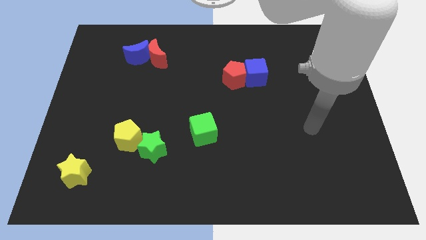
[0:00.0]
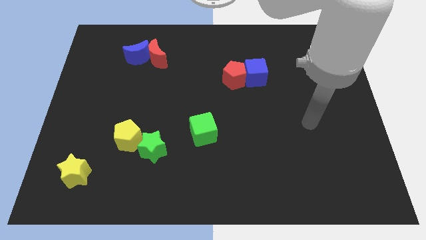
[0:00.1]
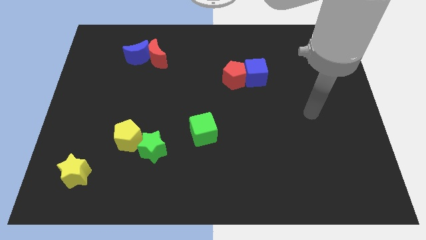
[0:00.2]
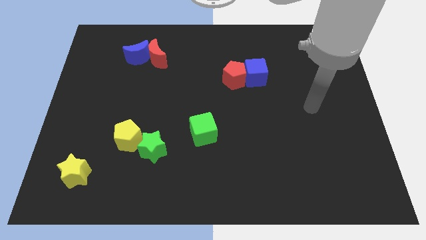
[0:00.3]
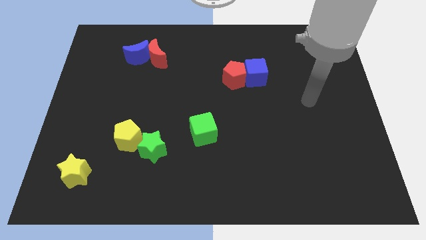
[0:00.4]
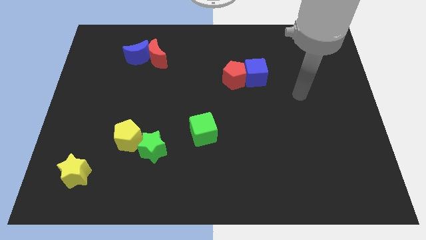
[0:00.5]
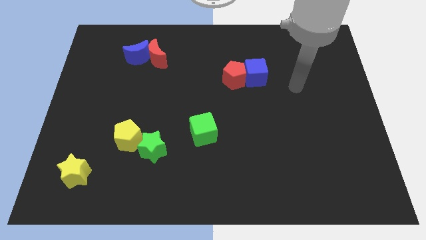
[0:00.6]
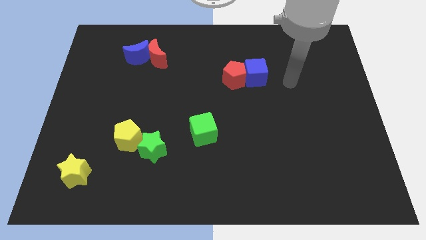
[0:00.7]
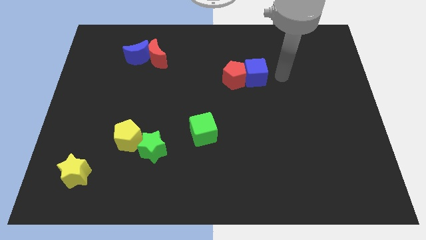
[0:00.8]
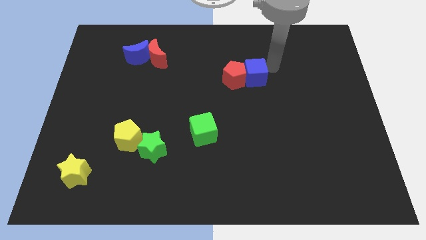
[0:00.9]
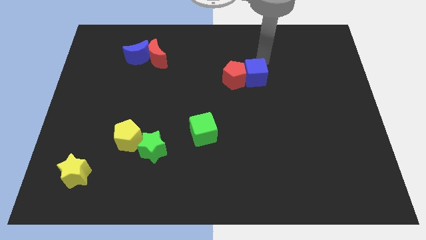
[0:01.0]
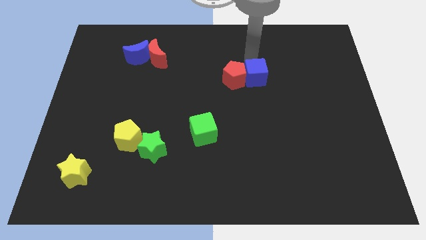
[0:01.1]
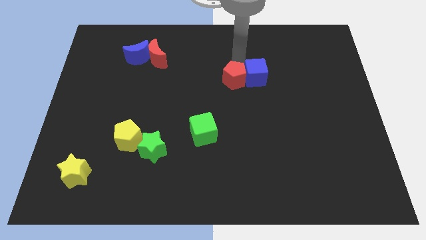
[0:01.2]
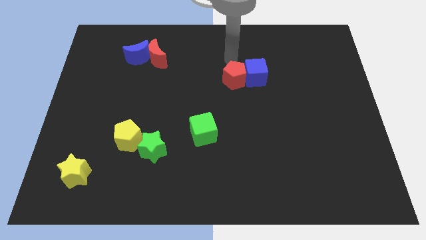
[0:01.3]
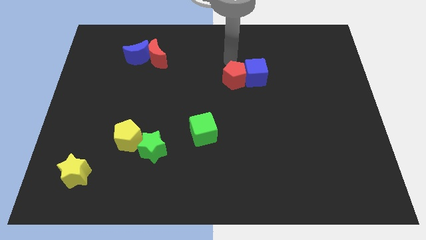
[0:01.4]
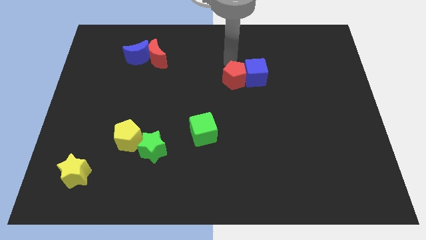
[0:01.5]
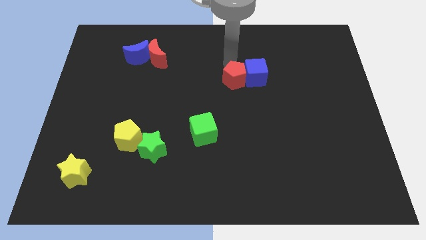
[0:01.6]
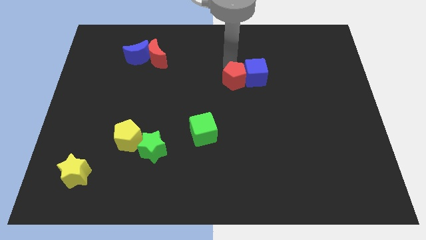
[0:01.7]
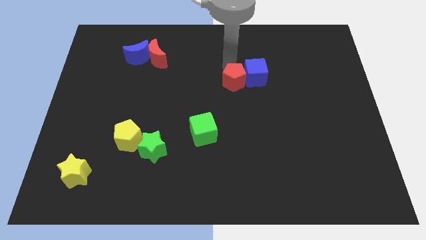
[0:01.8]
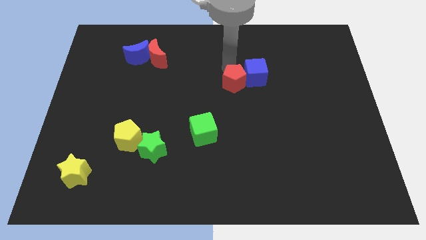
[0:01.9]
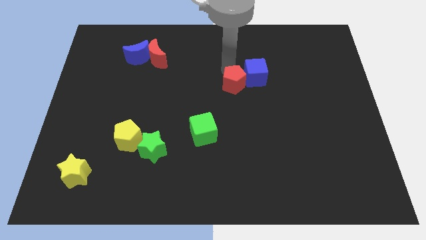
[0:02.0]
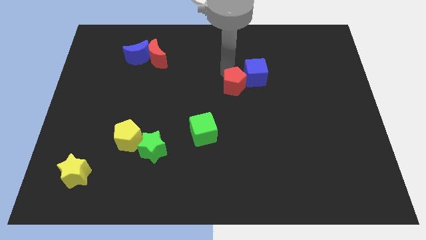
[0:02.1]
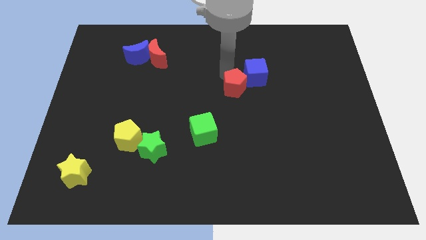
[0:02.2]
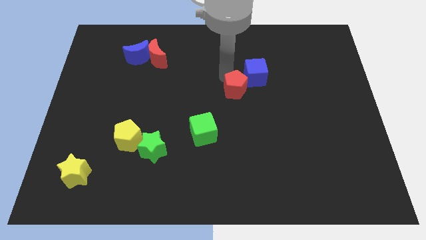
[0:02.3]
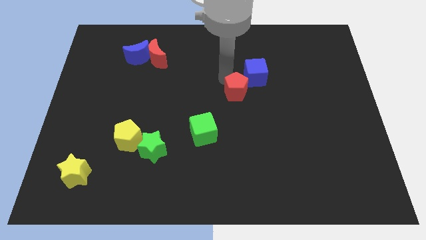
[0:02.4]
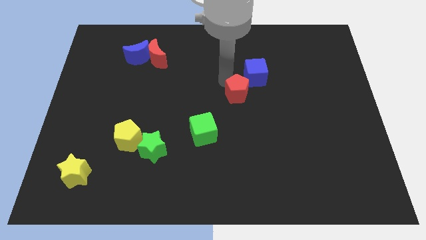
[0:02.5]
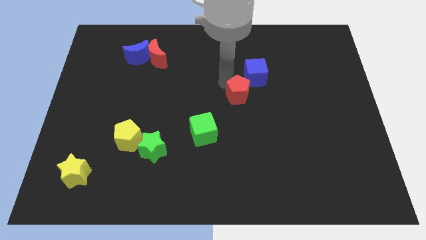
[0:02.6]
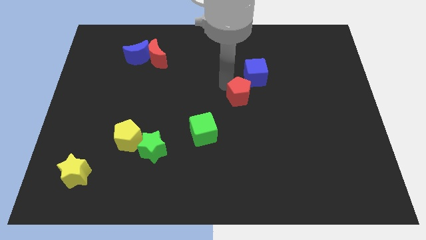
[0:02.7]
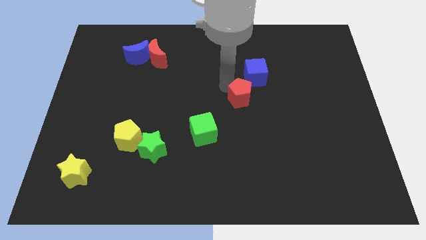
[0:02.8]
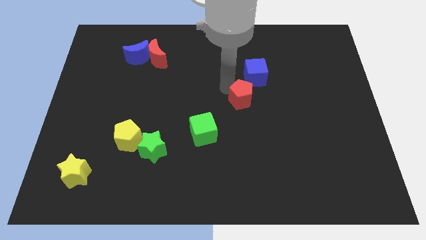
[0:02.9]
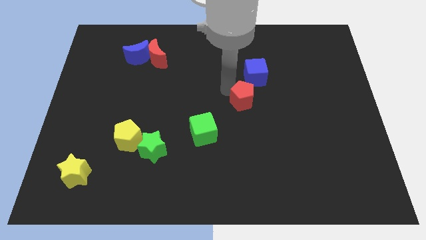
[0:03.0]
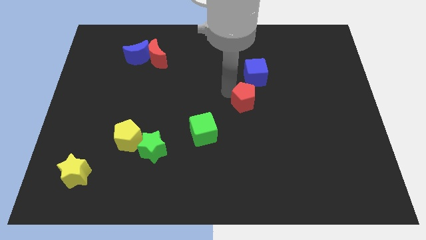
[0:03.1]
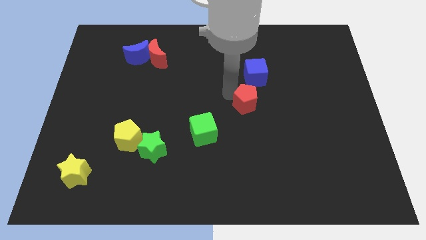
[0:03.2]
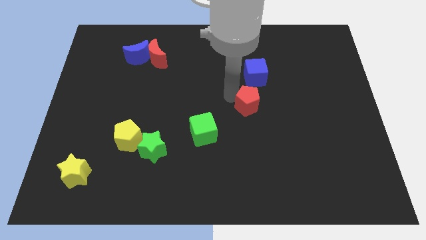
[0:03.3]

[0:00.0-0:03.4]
slightly slide the red pentagon downwards and to the right

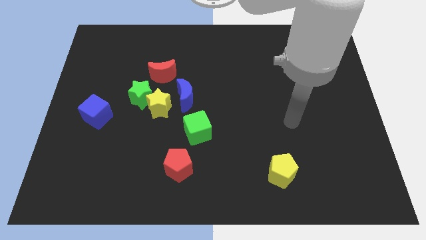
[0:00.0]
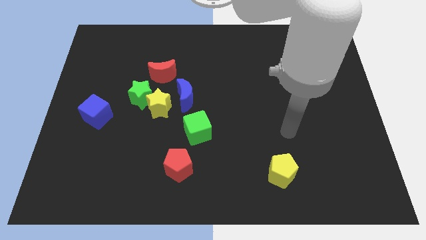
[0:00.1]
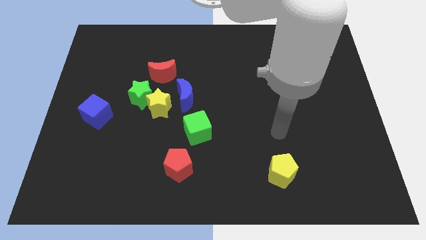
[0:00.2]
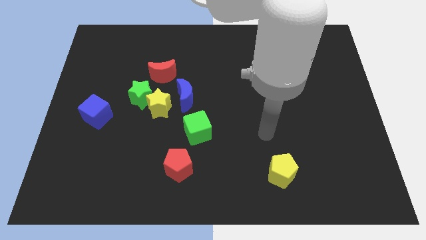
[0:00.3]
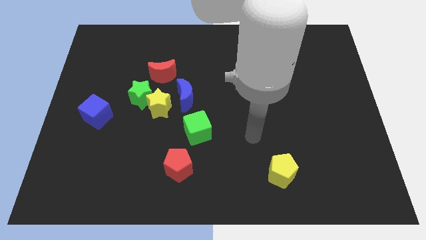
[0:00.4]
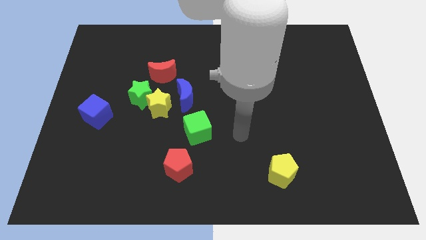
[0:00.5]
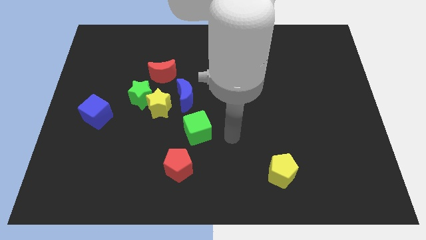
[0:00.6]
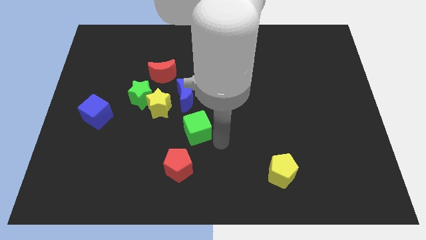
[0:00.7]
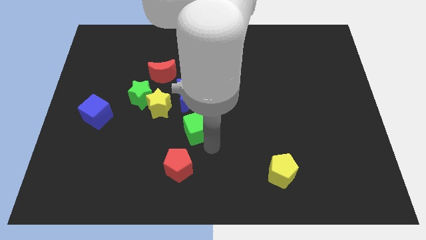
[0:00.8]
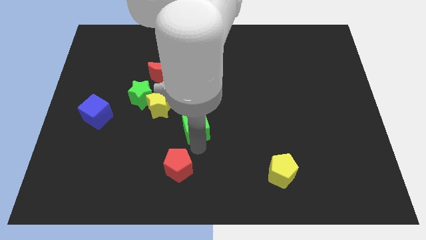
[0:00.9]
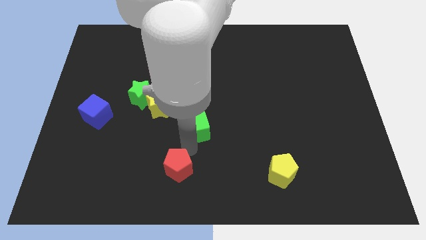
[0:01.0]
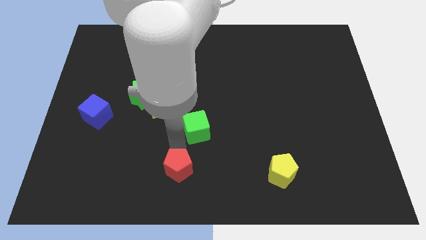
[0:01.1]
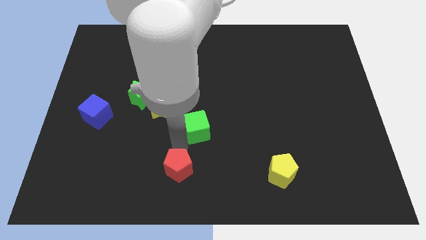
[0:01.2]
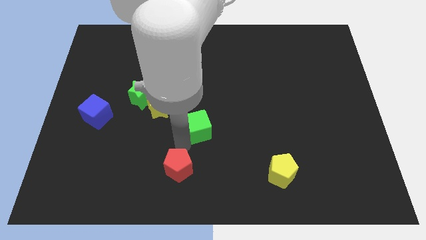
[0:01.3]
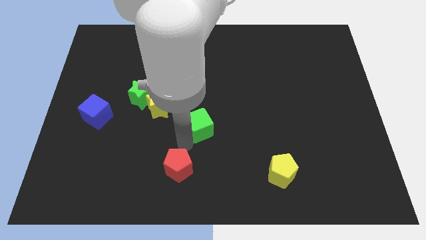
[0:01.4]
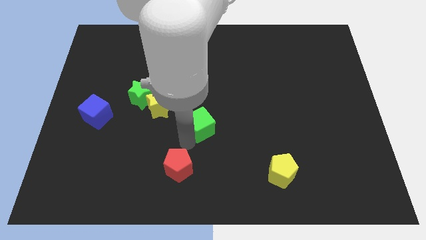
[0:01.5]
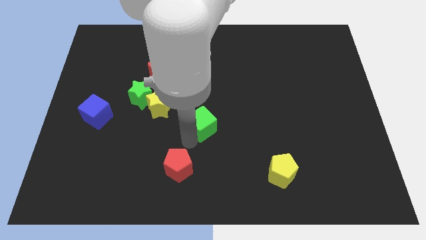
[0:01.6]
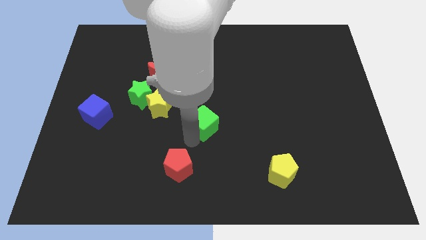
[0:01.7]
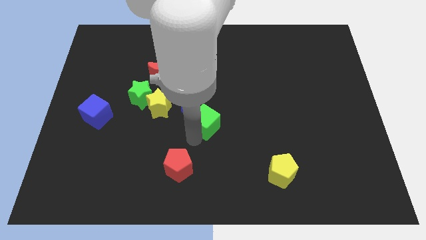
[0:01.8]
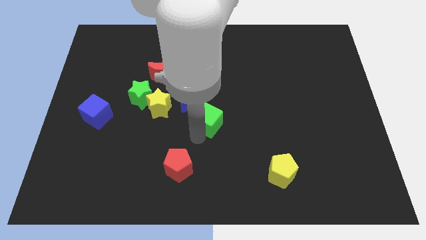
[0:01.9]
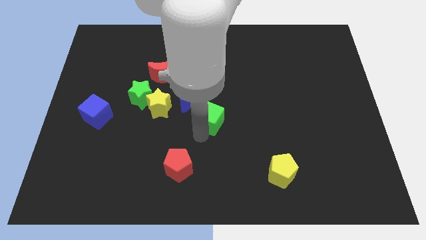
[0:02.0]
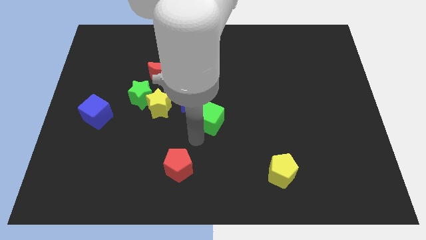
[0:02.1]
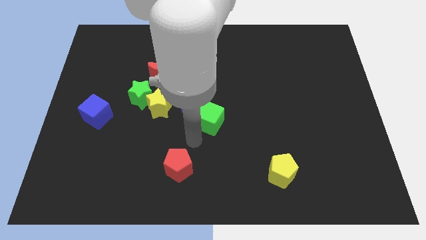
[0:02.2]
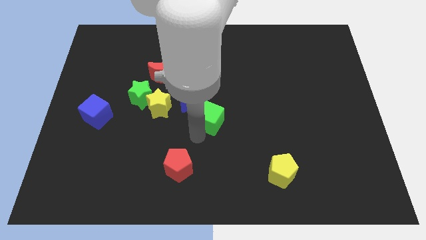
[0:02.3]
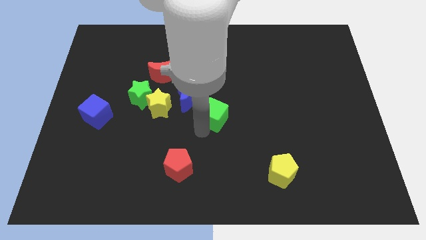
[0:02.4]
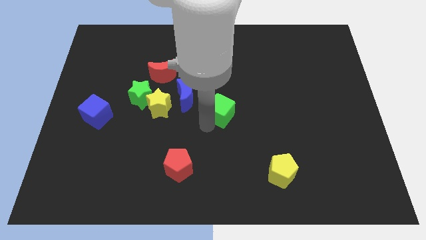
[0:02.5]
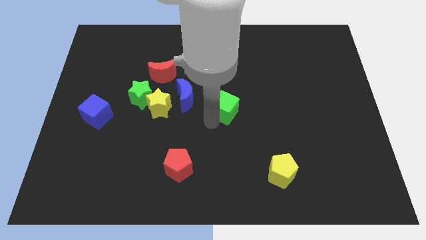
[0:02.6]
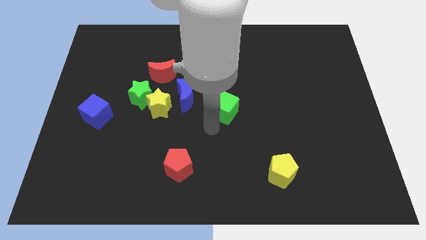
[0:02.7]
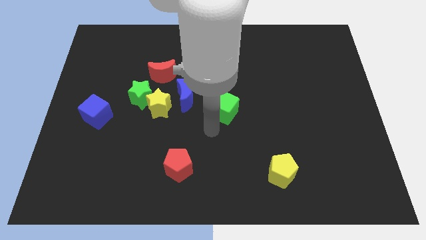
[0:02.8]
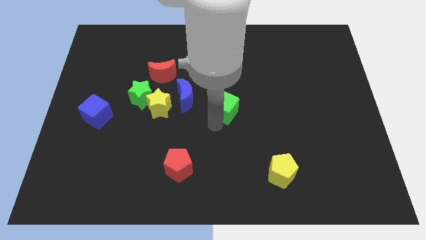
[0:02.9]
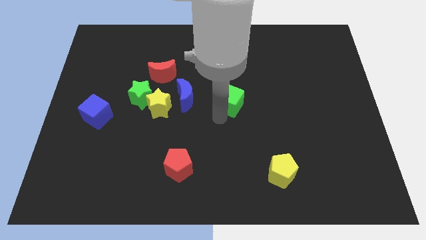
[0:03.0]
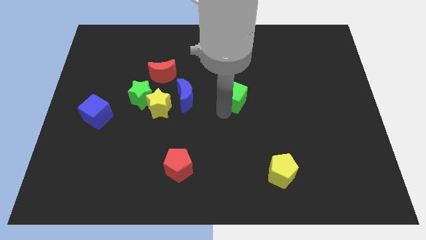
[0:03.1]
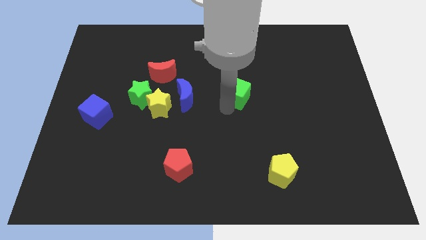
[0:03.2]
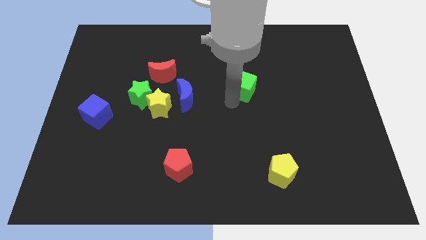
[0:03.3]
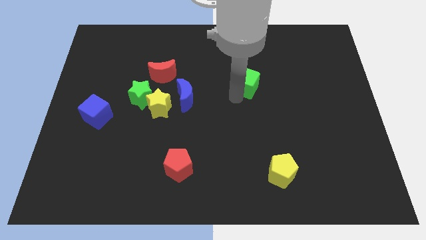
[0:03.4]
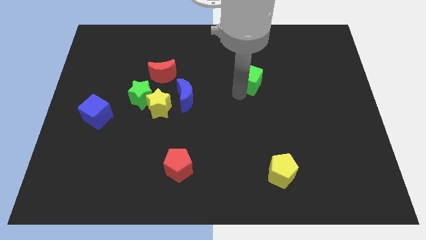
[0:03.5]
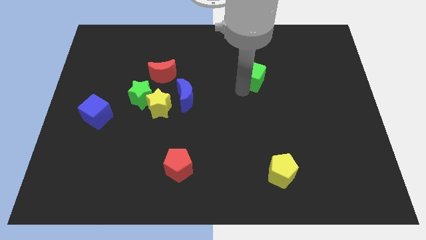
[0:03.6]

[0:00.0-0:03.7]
push the green cube up and then to the right

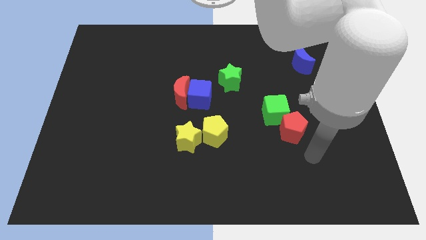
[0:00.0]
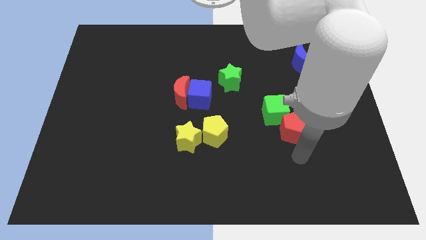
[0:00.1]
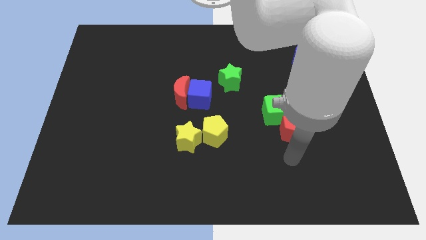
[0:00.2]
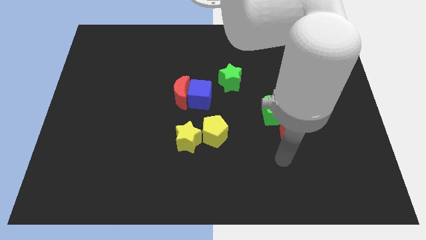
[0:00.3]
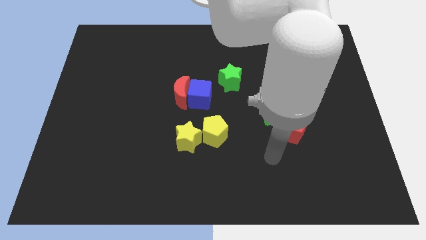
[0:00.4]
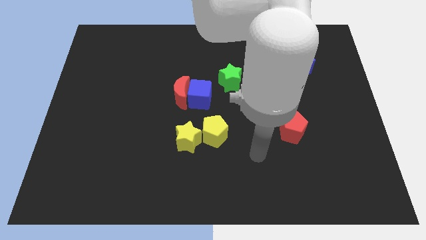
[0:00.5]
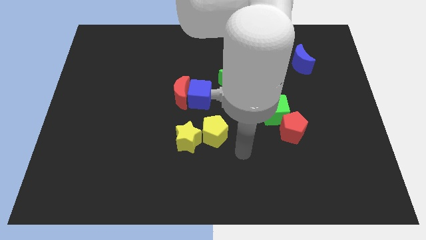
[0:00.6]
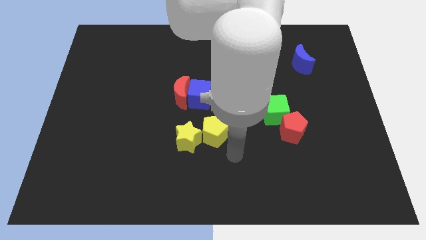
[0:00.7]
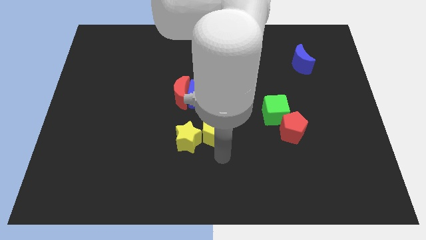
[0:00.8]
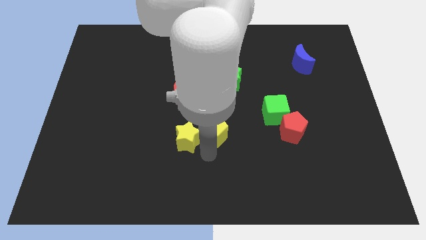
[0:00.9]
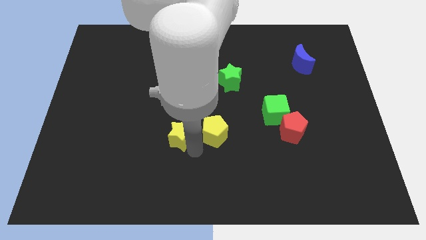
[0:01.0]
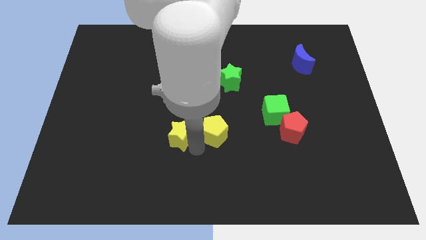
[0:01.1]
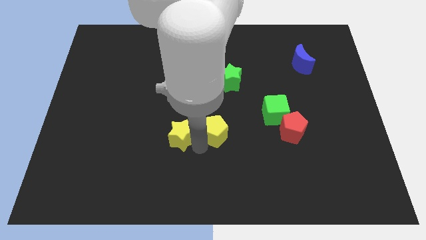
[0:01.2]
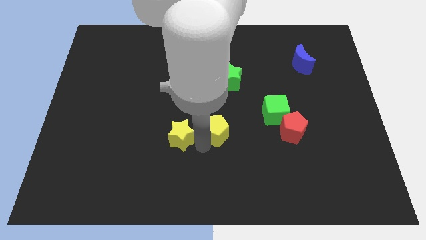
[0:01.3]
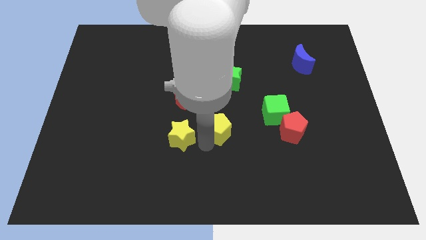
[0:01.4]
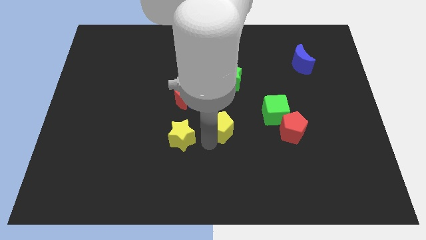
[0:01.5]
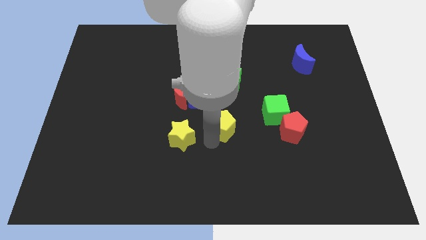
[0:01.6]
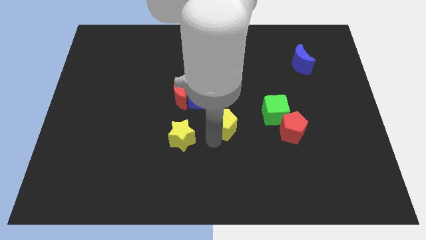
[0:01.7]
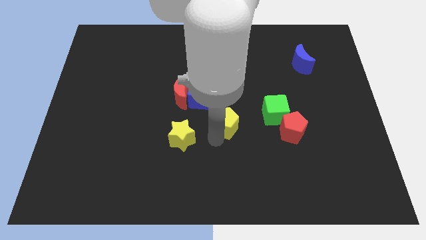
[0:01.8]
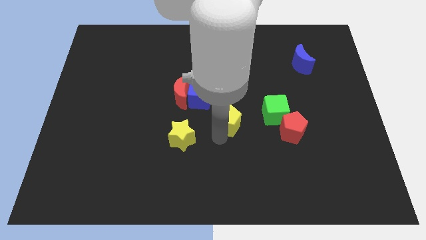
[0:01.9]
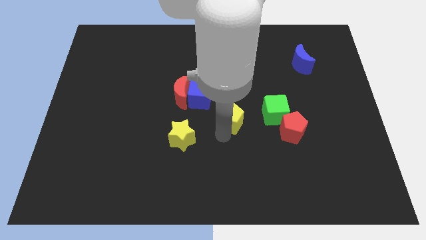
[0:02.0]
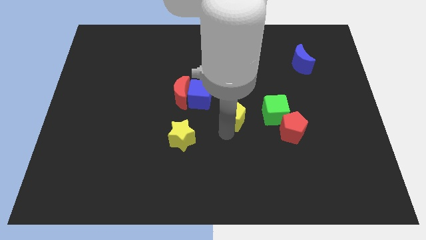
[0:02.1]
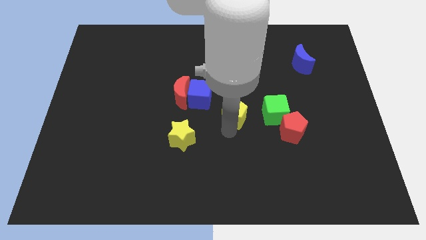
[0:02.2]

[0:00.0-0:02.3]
slide the yellow pentagon slightly upwards and to the right
